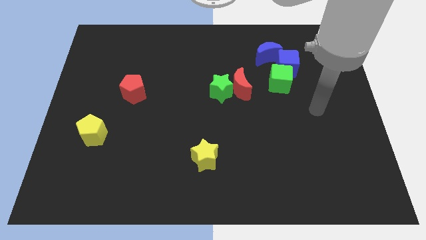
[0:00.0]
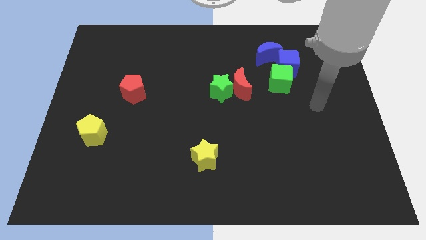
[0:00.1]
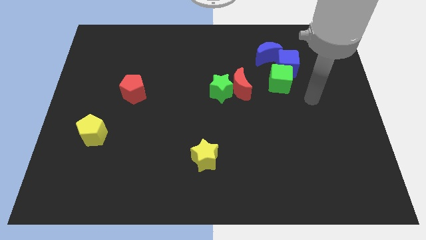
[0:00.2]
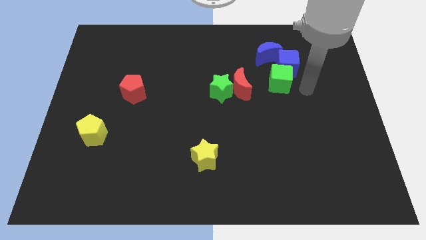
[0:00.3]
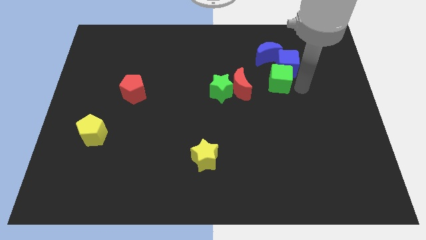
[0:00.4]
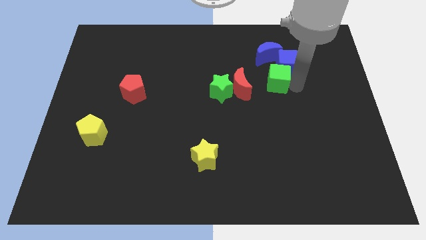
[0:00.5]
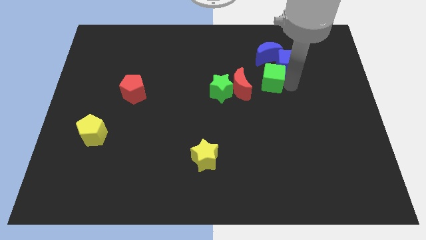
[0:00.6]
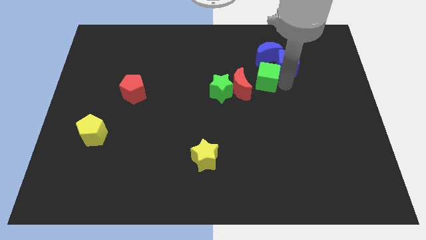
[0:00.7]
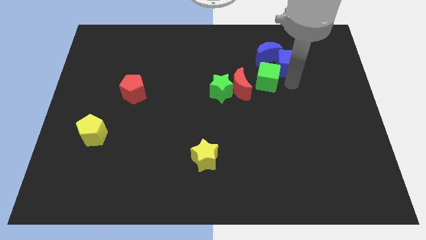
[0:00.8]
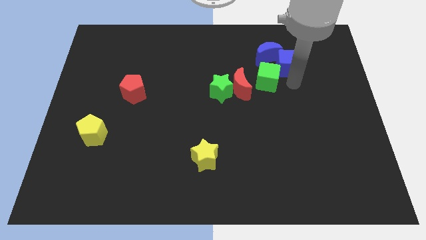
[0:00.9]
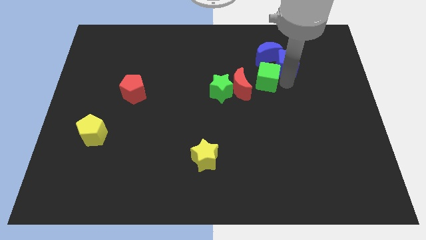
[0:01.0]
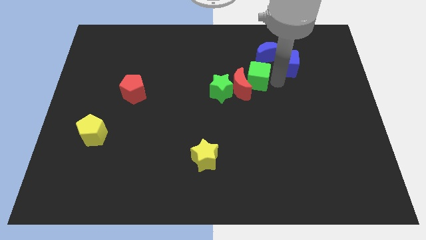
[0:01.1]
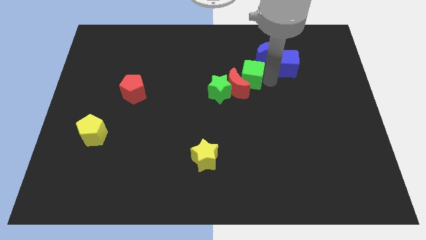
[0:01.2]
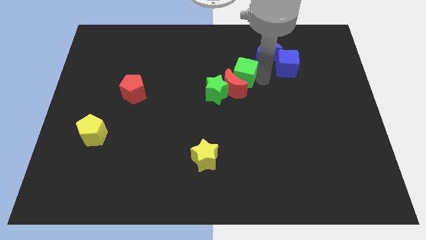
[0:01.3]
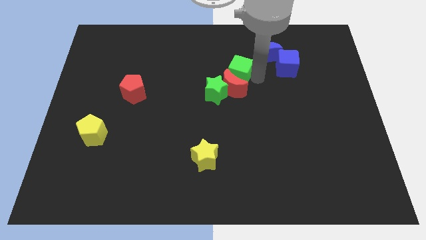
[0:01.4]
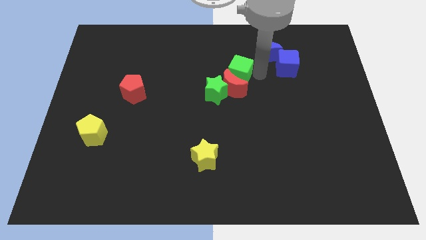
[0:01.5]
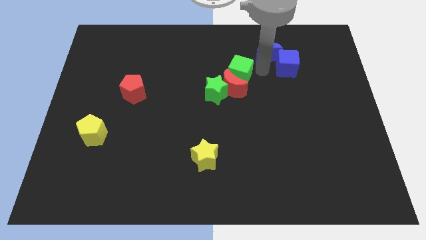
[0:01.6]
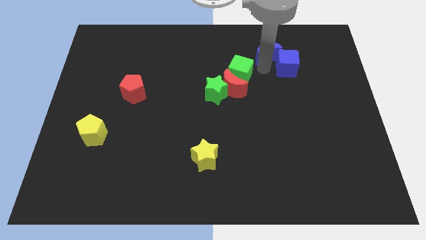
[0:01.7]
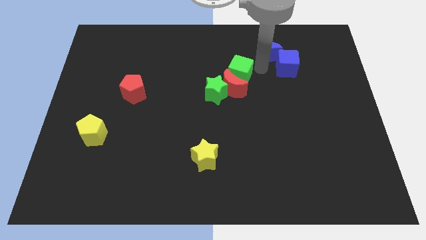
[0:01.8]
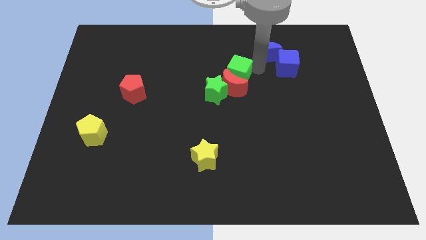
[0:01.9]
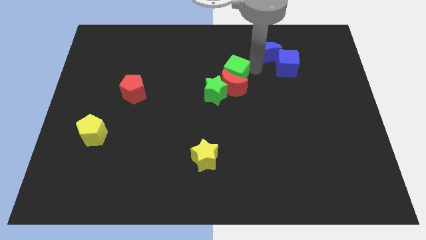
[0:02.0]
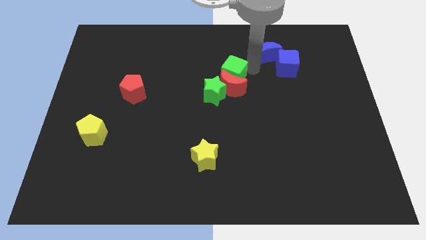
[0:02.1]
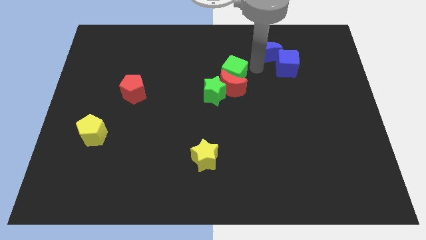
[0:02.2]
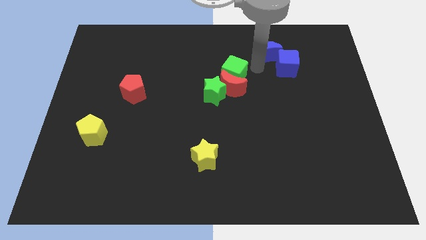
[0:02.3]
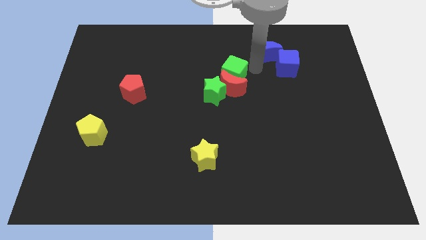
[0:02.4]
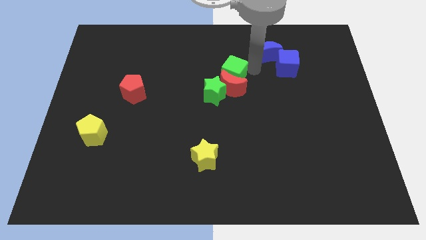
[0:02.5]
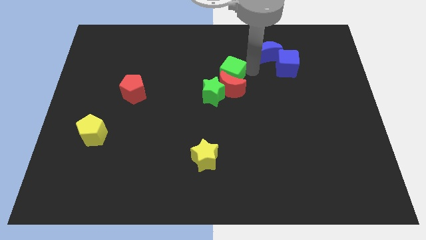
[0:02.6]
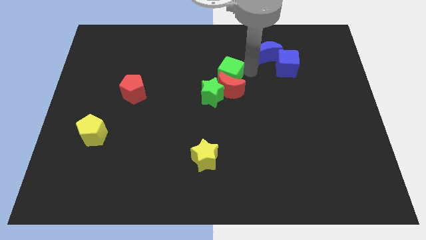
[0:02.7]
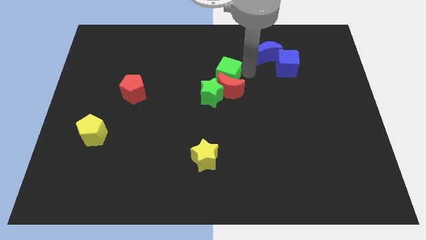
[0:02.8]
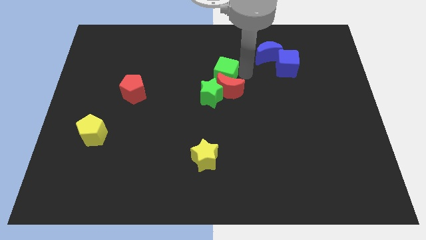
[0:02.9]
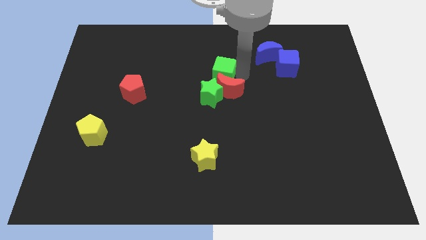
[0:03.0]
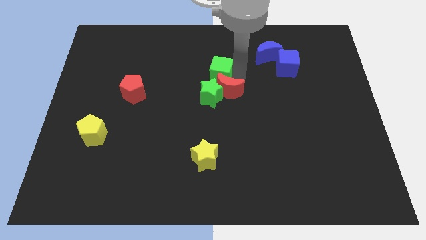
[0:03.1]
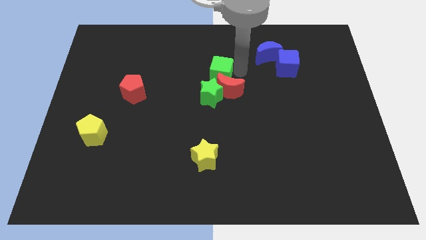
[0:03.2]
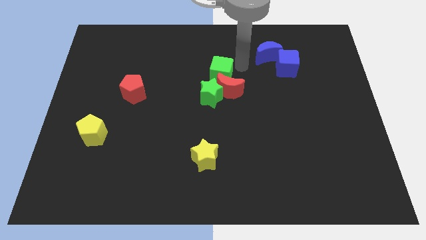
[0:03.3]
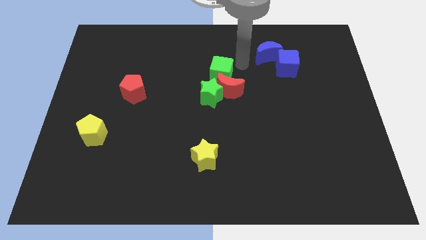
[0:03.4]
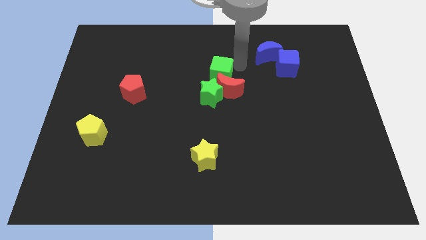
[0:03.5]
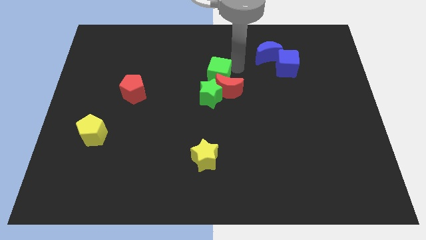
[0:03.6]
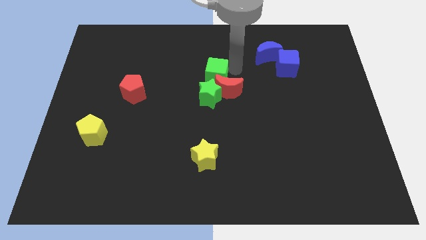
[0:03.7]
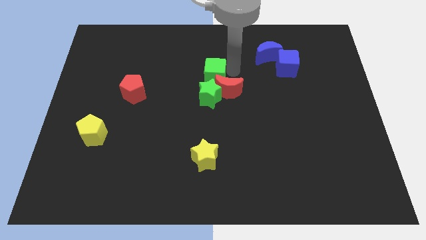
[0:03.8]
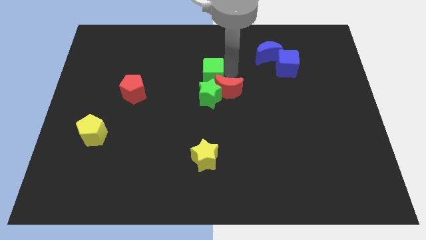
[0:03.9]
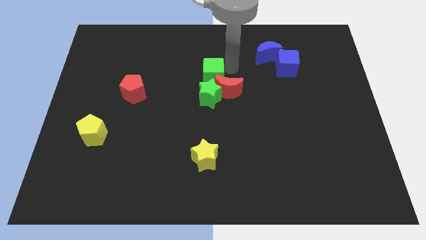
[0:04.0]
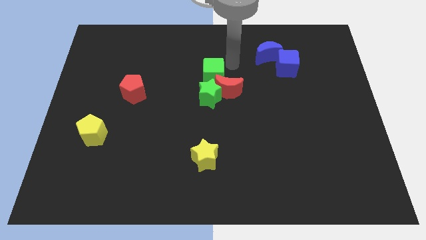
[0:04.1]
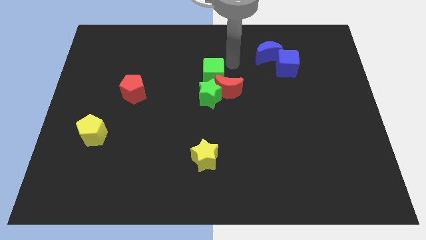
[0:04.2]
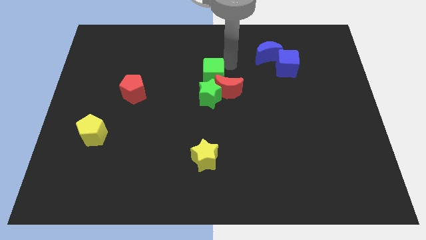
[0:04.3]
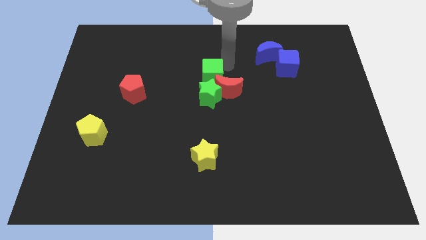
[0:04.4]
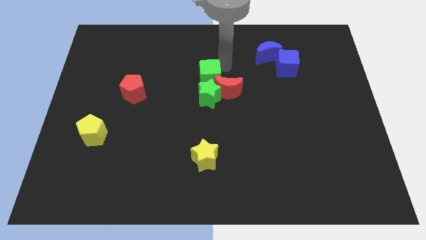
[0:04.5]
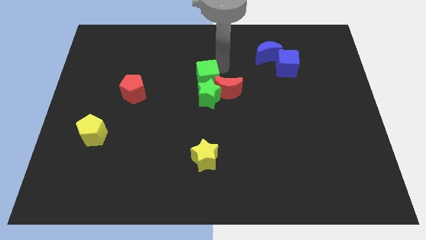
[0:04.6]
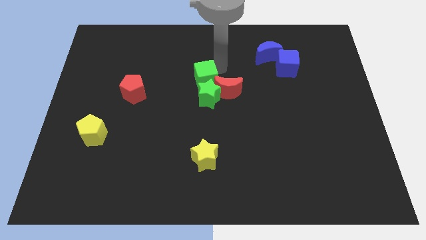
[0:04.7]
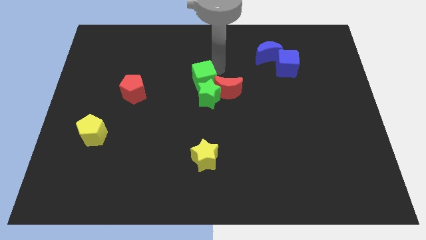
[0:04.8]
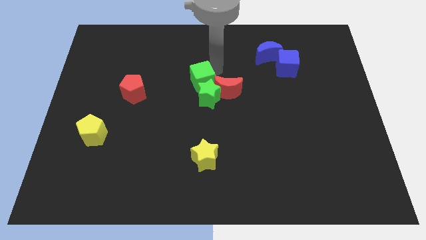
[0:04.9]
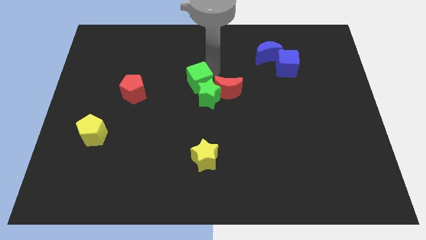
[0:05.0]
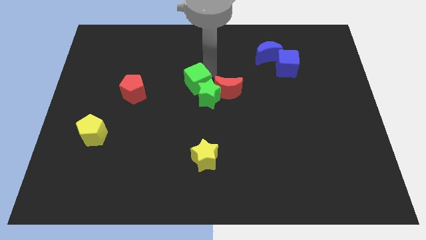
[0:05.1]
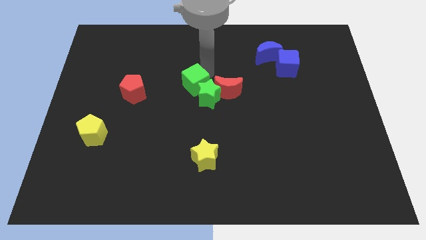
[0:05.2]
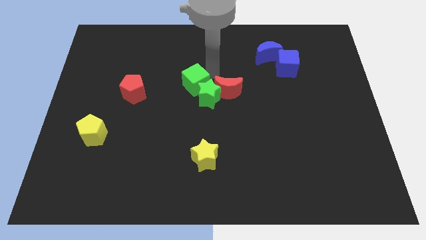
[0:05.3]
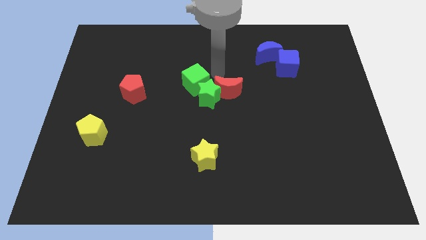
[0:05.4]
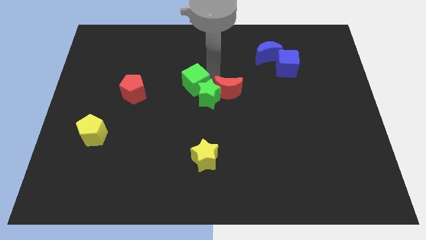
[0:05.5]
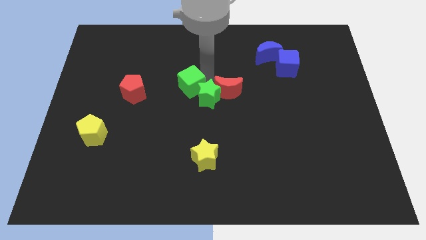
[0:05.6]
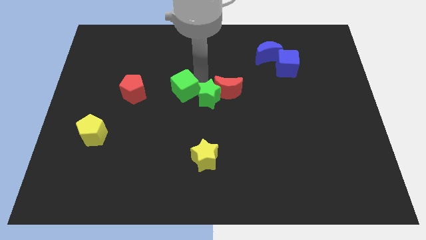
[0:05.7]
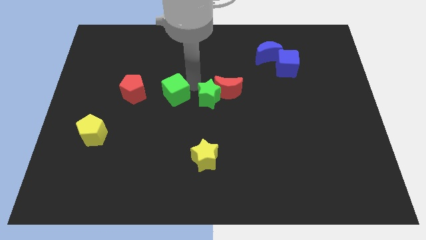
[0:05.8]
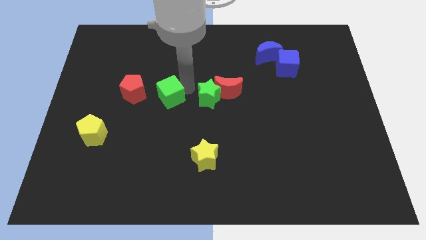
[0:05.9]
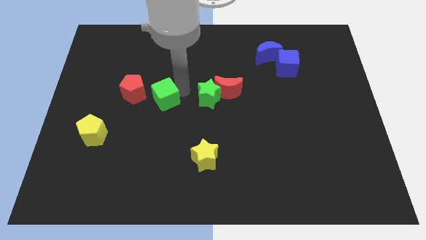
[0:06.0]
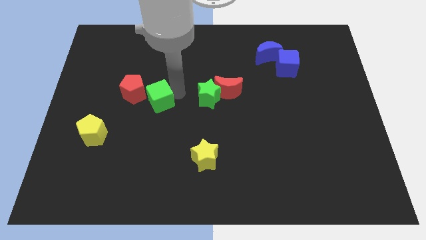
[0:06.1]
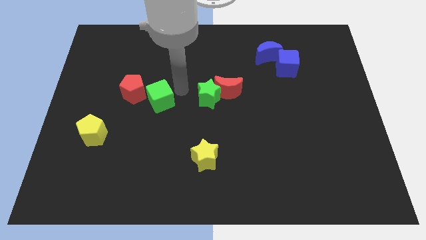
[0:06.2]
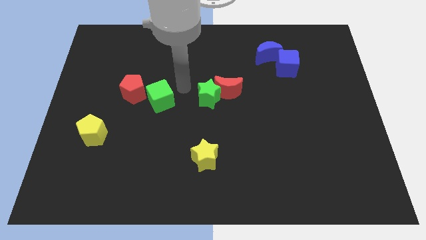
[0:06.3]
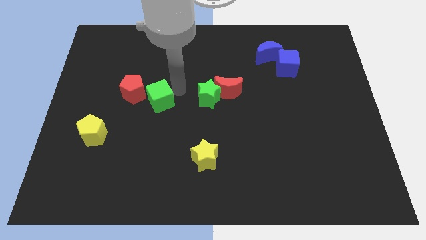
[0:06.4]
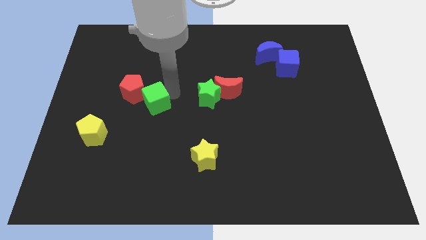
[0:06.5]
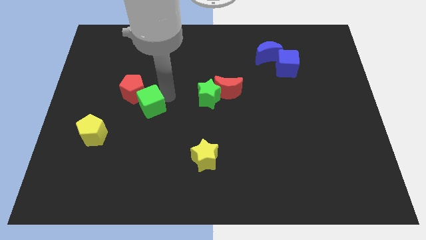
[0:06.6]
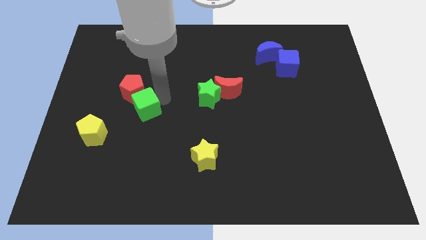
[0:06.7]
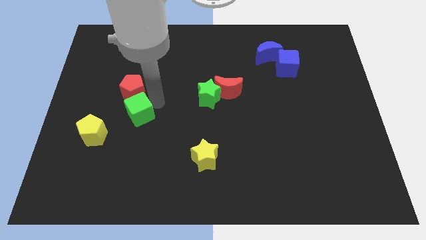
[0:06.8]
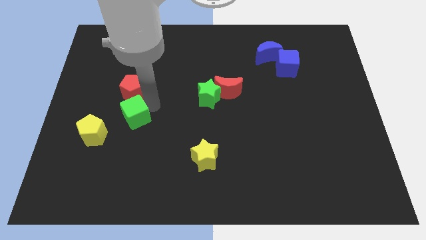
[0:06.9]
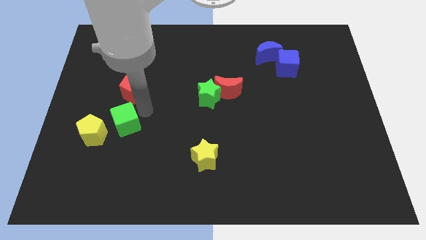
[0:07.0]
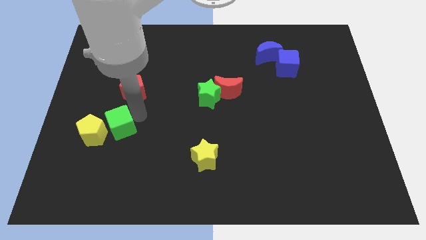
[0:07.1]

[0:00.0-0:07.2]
slide the green cube towards the yellow pentagon

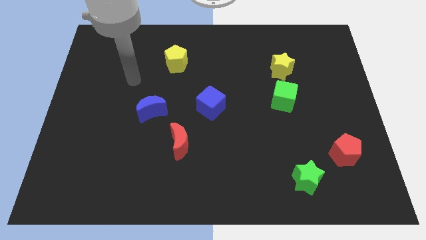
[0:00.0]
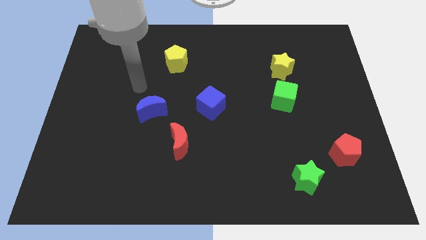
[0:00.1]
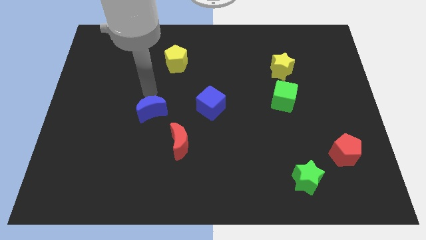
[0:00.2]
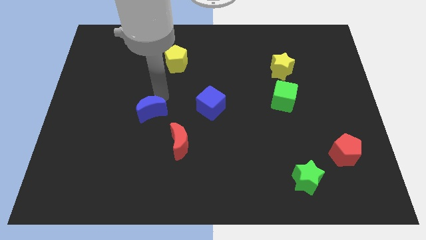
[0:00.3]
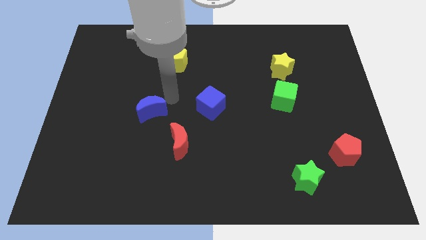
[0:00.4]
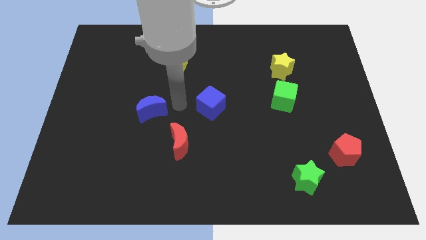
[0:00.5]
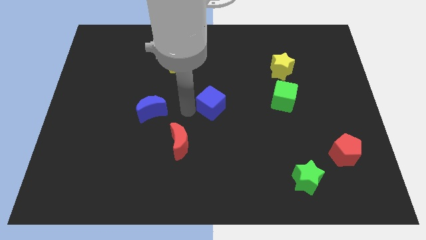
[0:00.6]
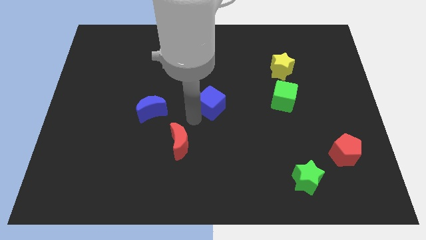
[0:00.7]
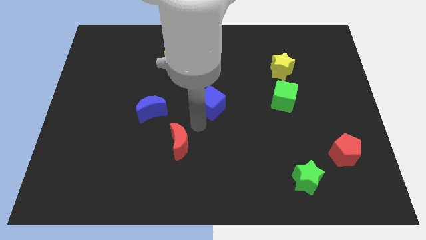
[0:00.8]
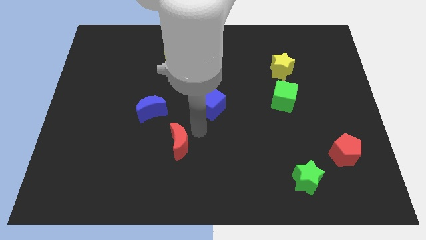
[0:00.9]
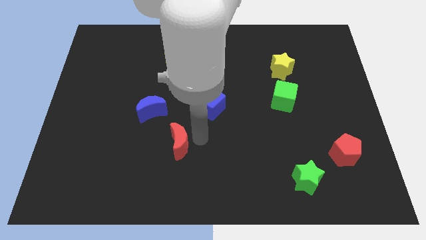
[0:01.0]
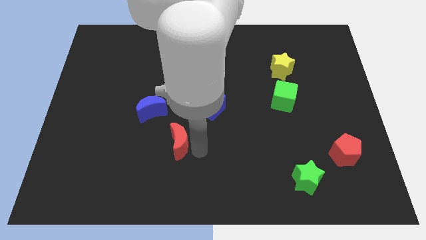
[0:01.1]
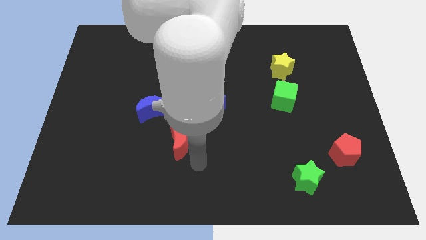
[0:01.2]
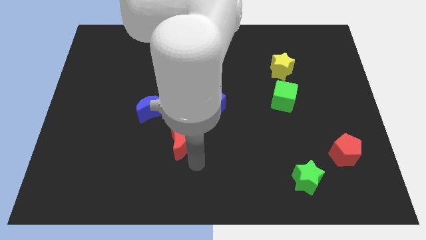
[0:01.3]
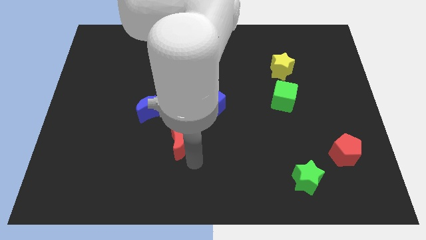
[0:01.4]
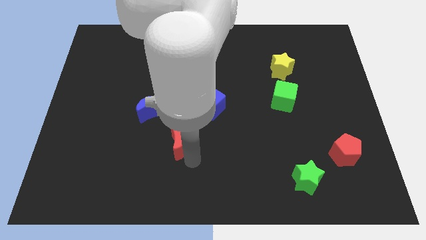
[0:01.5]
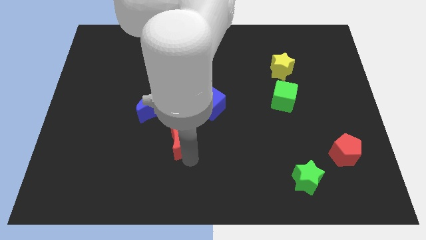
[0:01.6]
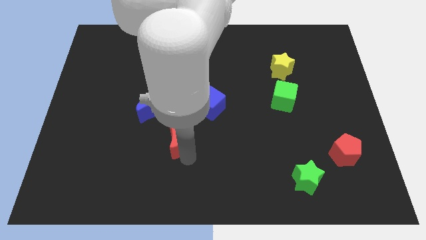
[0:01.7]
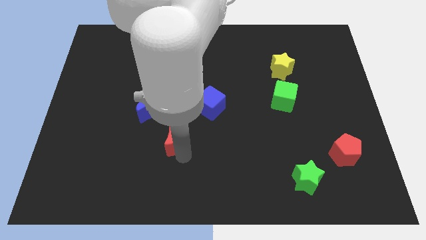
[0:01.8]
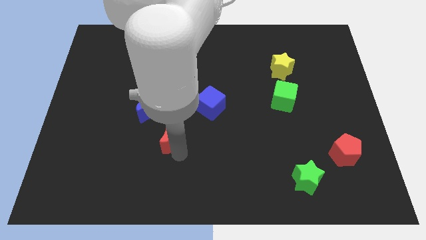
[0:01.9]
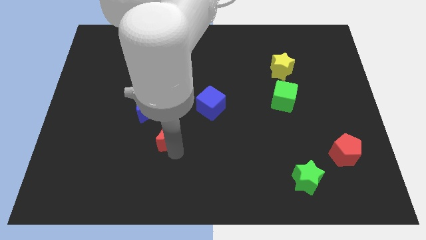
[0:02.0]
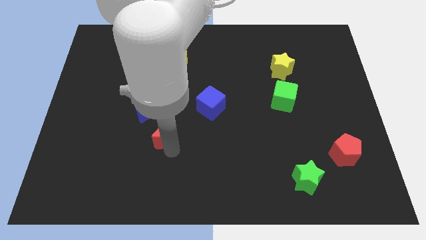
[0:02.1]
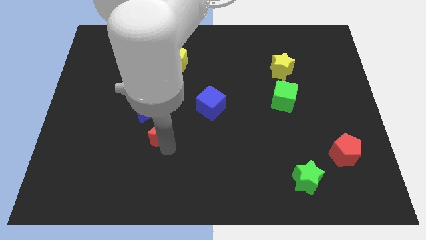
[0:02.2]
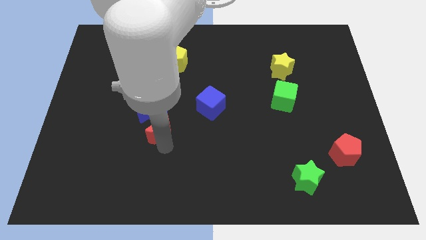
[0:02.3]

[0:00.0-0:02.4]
slide the red moon towards the blue moon
